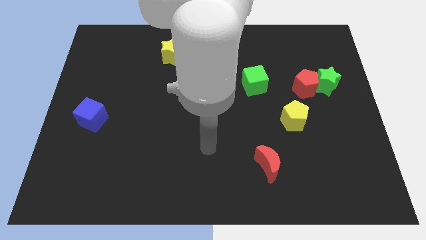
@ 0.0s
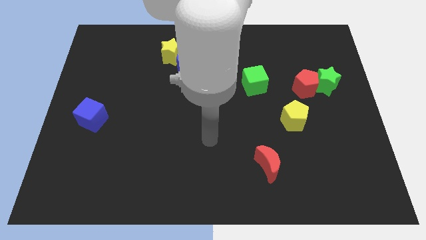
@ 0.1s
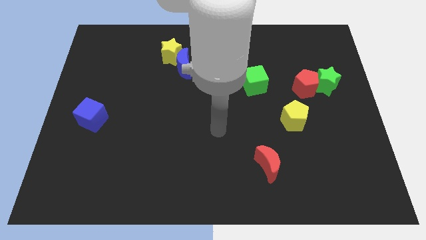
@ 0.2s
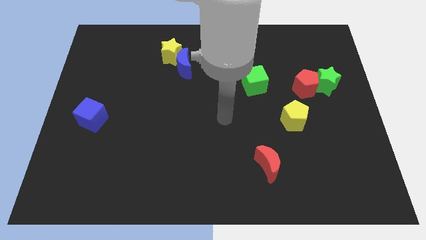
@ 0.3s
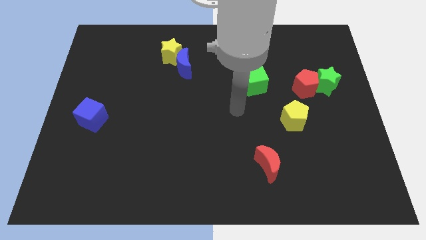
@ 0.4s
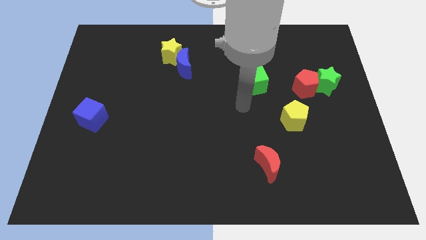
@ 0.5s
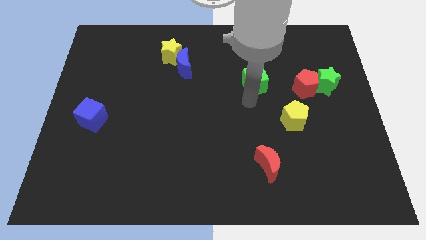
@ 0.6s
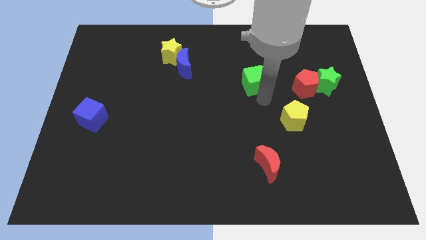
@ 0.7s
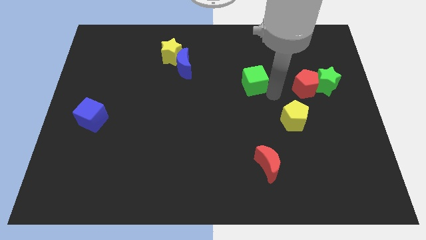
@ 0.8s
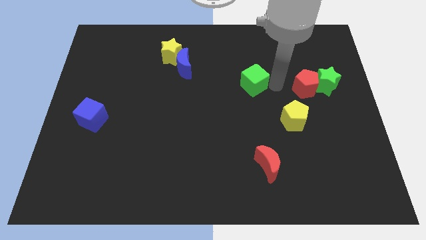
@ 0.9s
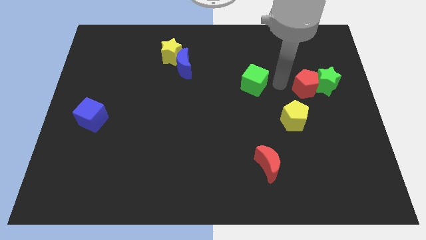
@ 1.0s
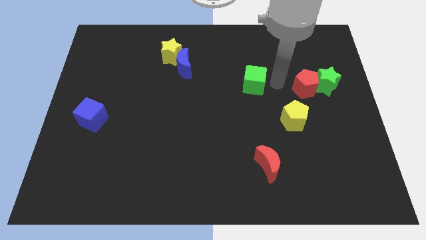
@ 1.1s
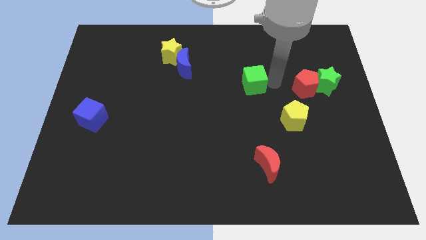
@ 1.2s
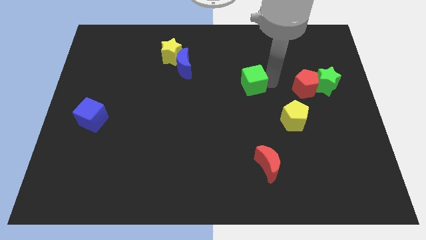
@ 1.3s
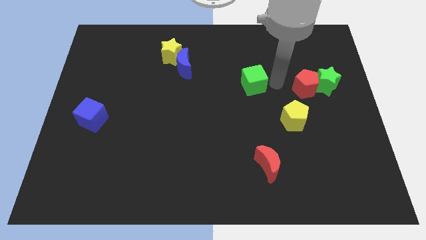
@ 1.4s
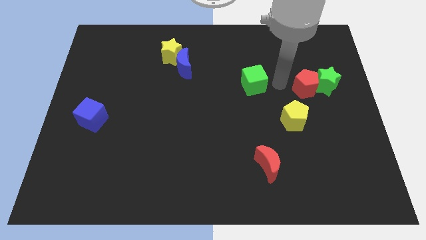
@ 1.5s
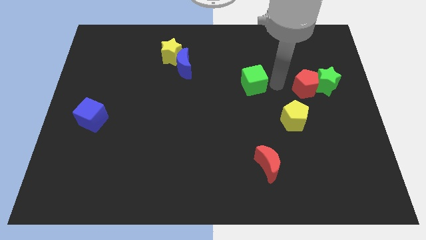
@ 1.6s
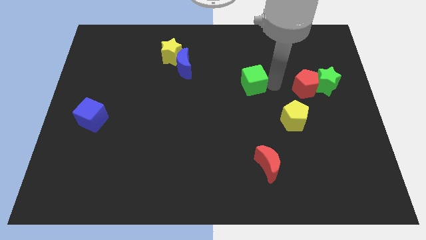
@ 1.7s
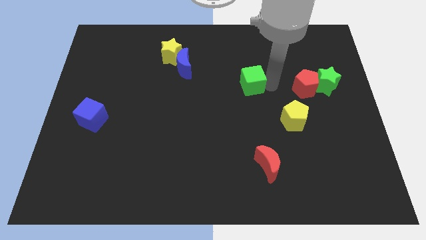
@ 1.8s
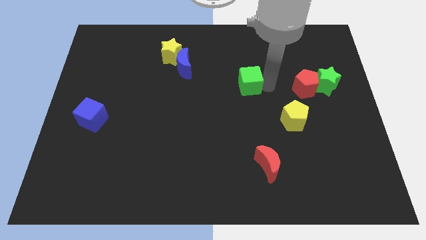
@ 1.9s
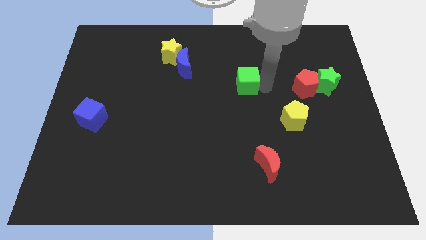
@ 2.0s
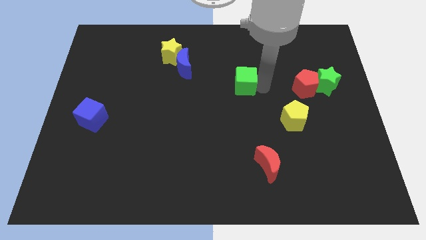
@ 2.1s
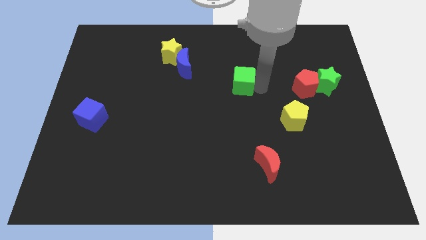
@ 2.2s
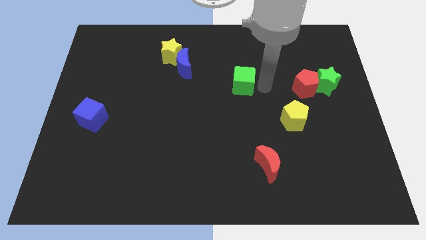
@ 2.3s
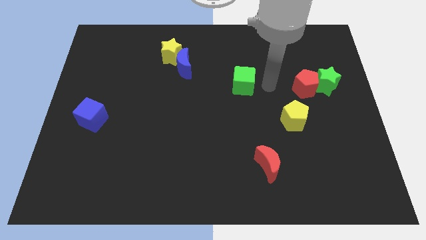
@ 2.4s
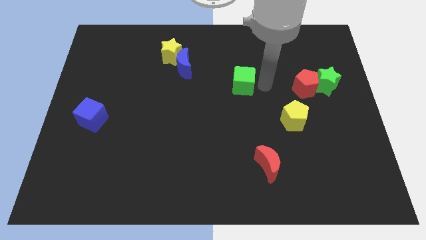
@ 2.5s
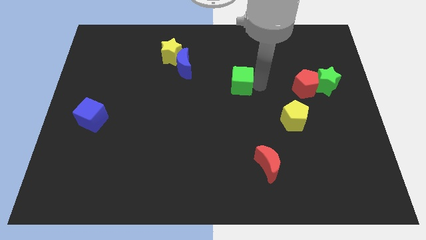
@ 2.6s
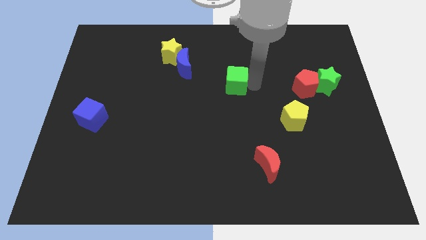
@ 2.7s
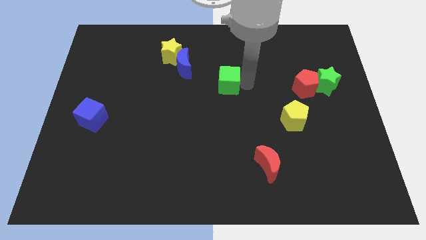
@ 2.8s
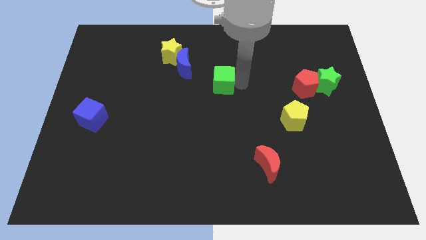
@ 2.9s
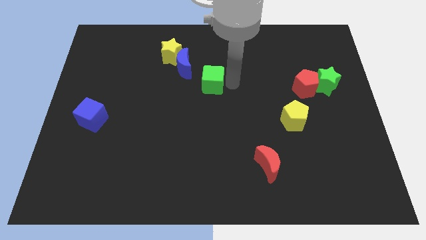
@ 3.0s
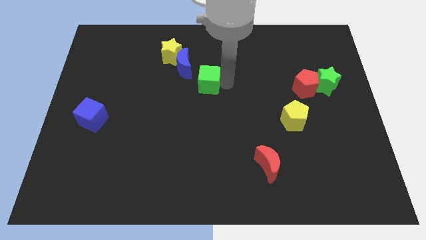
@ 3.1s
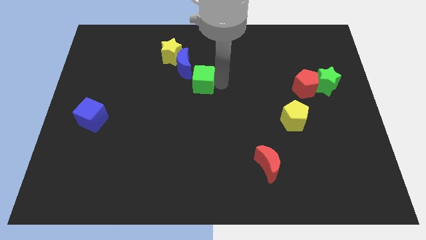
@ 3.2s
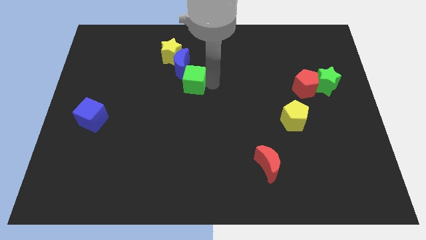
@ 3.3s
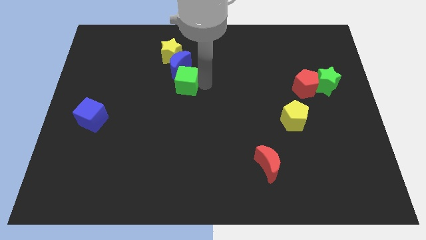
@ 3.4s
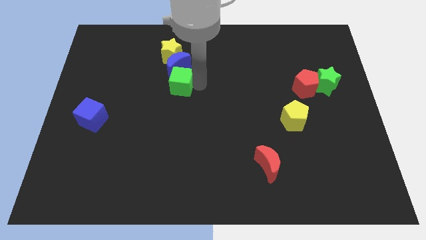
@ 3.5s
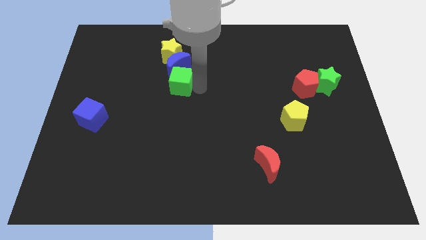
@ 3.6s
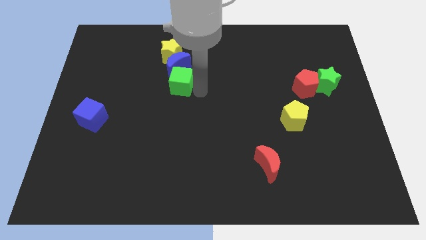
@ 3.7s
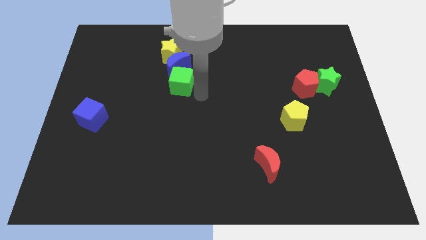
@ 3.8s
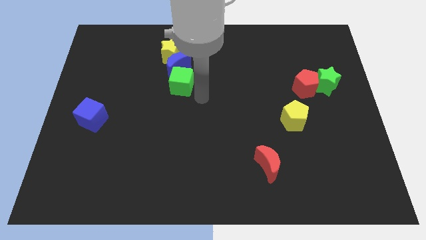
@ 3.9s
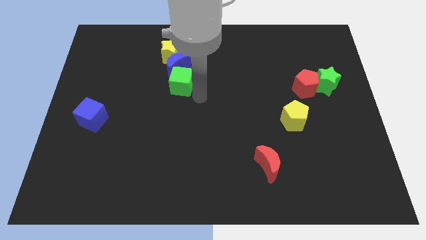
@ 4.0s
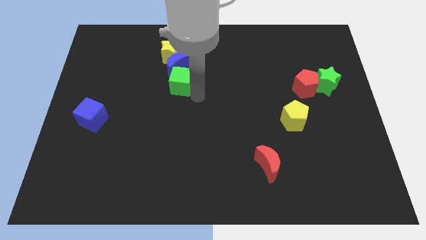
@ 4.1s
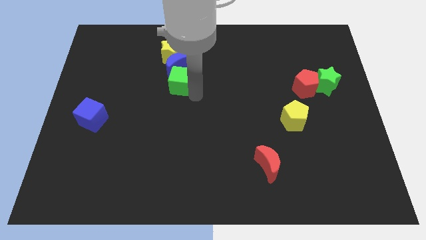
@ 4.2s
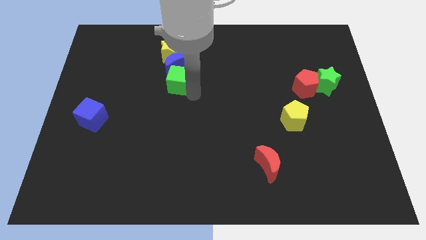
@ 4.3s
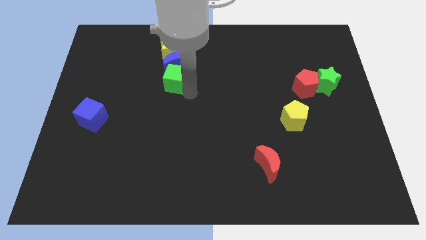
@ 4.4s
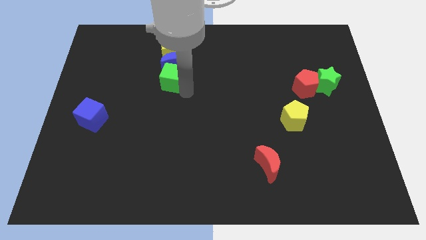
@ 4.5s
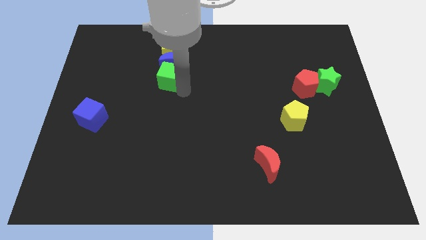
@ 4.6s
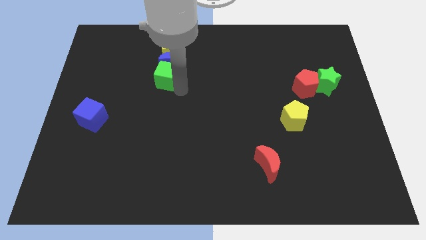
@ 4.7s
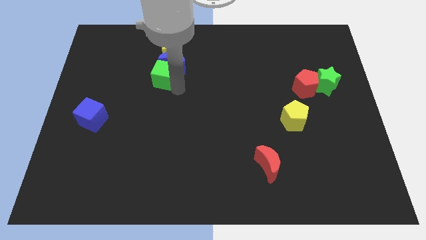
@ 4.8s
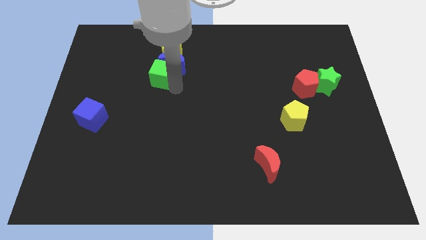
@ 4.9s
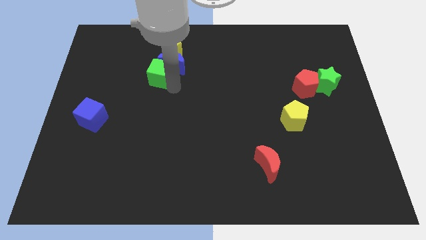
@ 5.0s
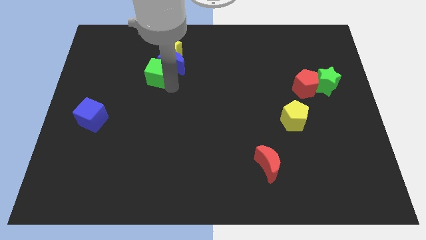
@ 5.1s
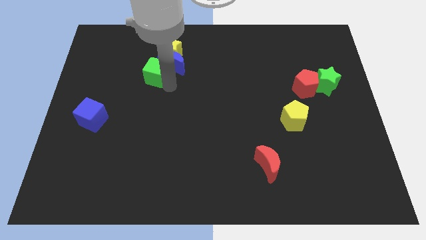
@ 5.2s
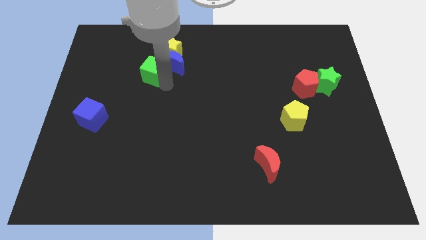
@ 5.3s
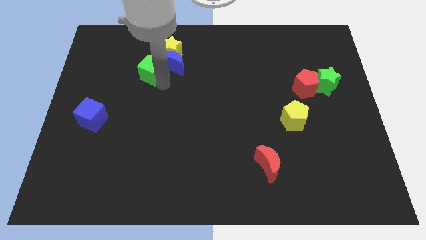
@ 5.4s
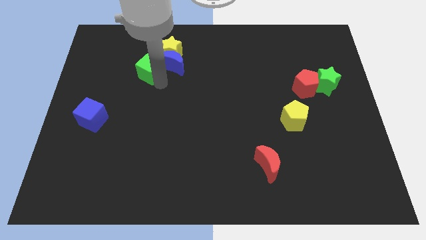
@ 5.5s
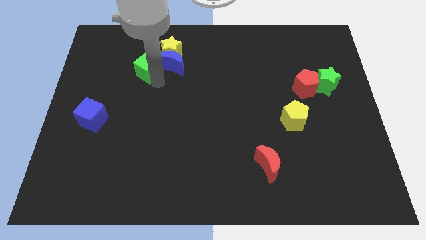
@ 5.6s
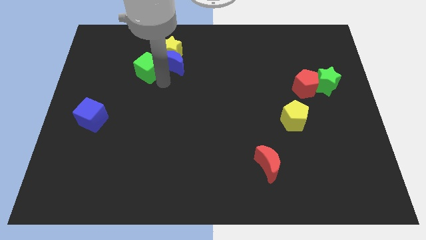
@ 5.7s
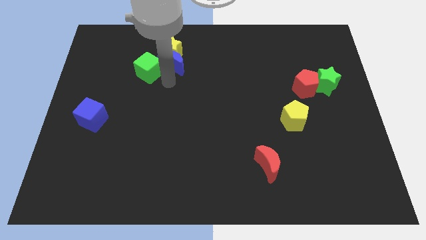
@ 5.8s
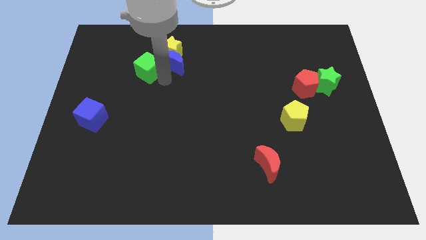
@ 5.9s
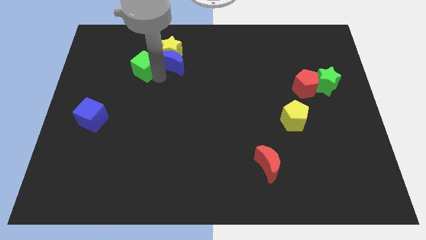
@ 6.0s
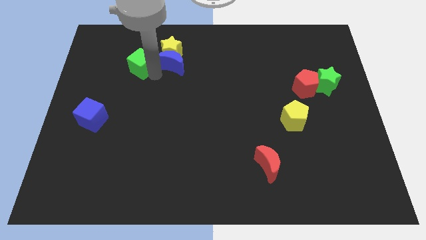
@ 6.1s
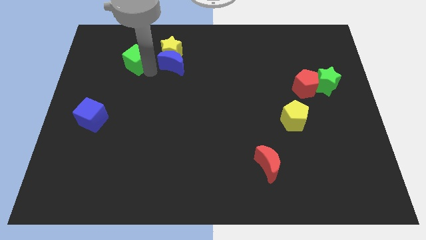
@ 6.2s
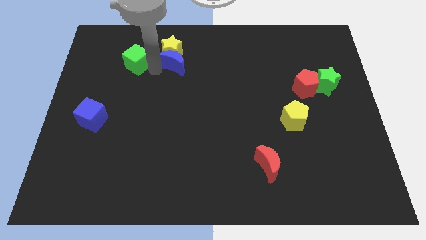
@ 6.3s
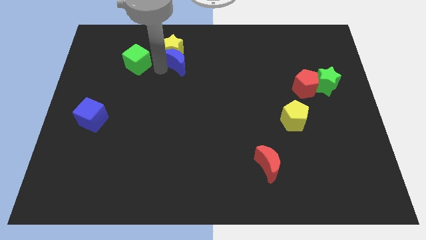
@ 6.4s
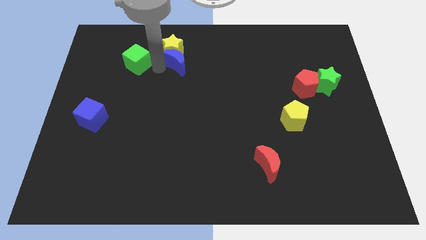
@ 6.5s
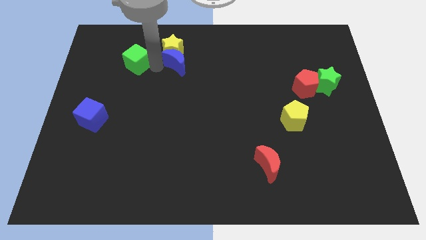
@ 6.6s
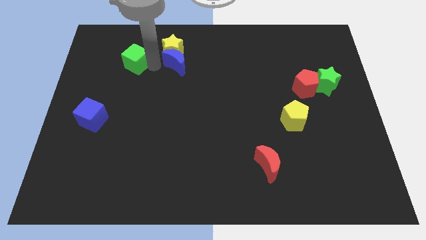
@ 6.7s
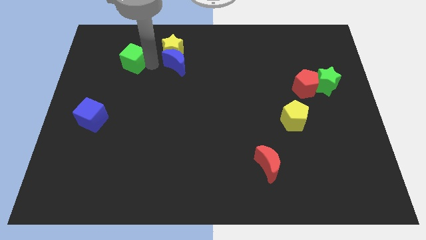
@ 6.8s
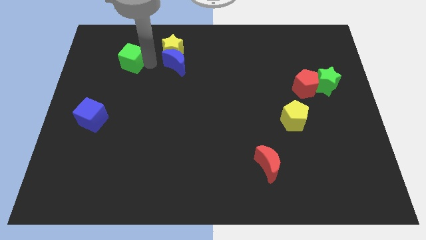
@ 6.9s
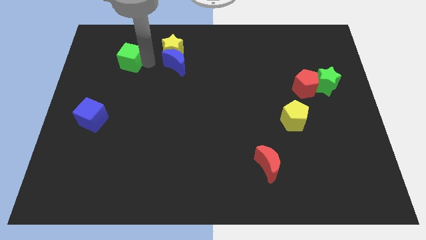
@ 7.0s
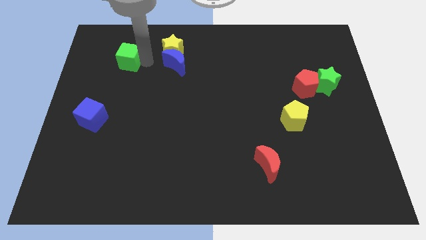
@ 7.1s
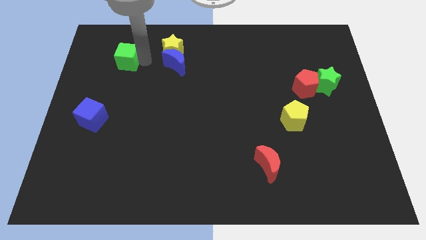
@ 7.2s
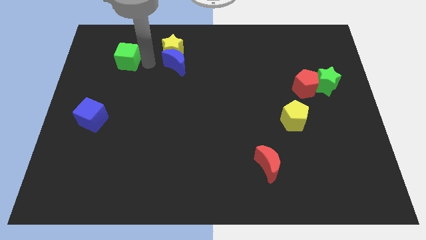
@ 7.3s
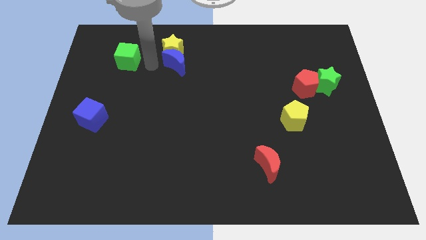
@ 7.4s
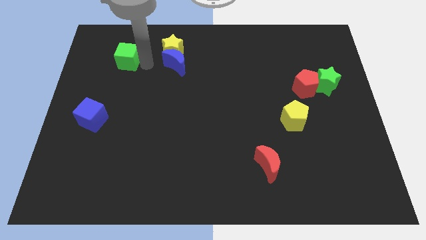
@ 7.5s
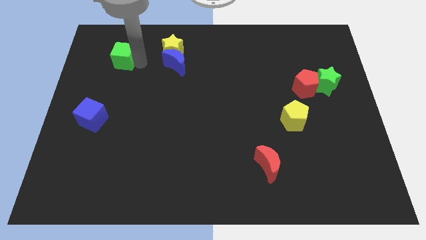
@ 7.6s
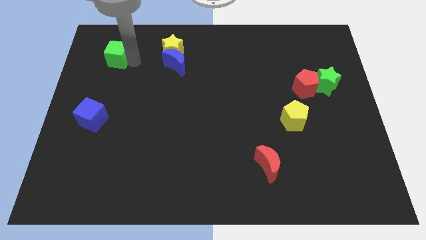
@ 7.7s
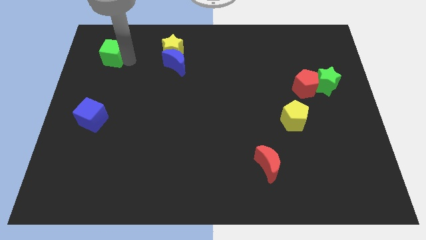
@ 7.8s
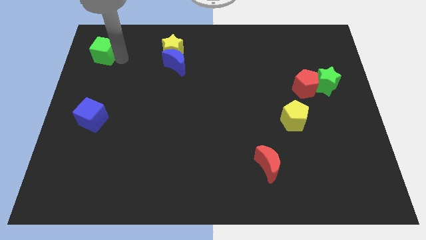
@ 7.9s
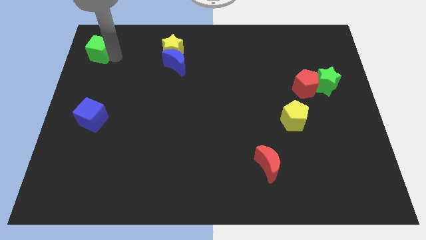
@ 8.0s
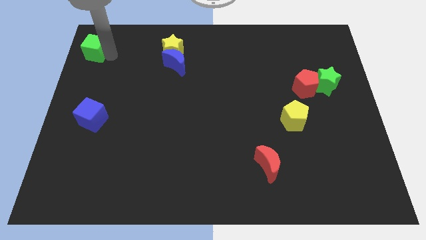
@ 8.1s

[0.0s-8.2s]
push the green cube to the top left corner
